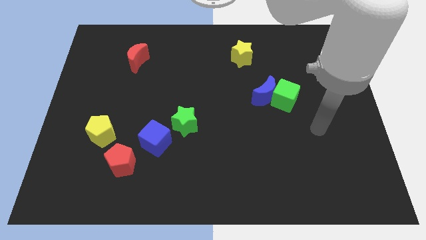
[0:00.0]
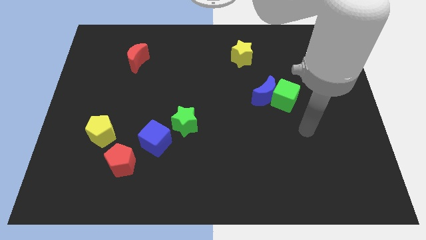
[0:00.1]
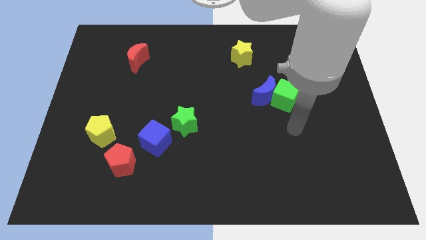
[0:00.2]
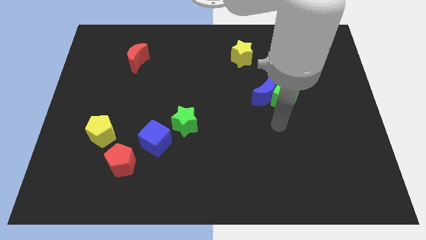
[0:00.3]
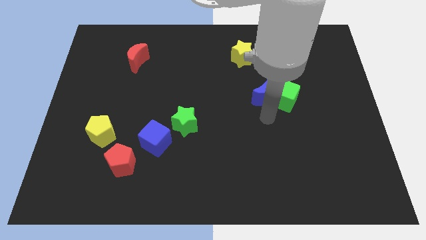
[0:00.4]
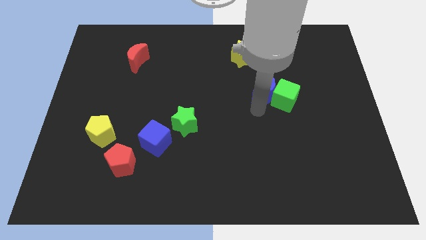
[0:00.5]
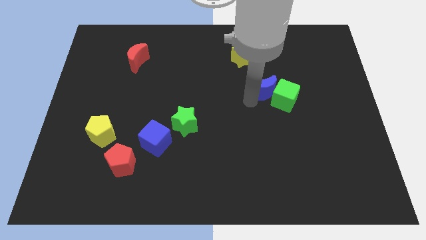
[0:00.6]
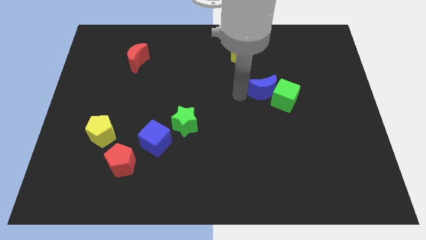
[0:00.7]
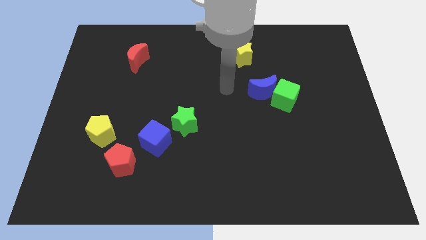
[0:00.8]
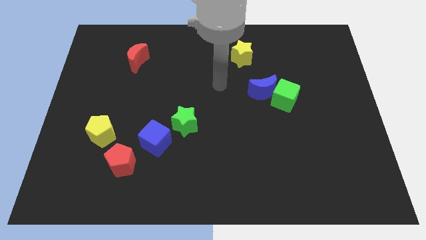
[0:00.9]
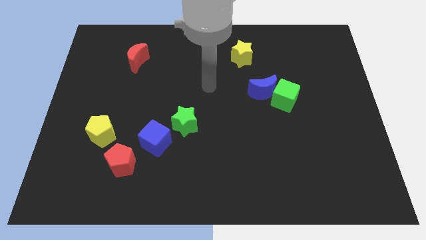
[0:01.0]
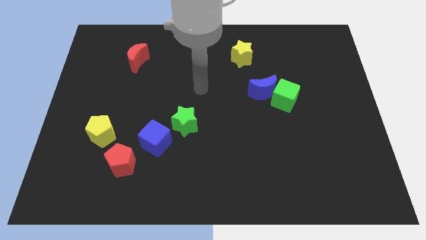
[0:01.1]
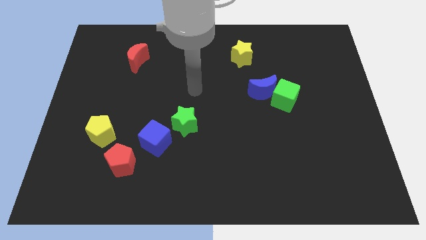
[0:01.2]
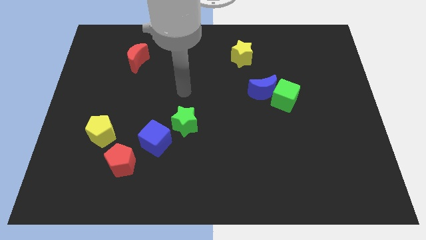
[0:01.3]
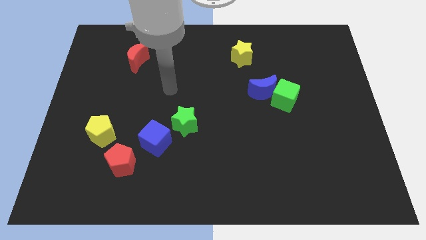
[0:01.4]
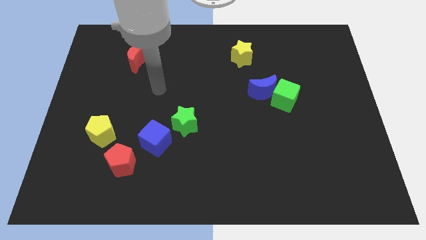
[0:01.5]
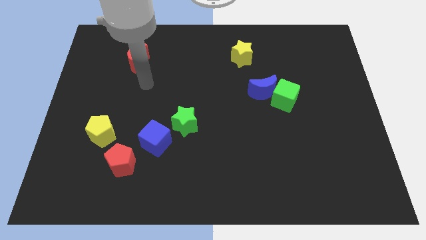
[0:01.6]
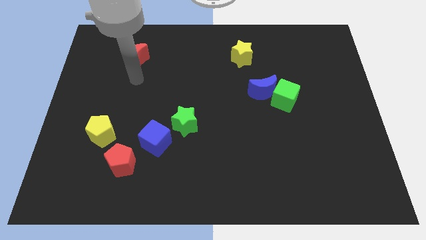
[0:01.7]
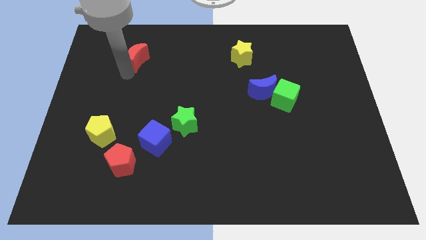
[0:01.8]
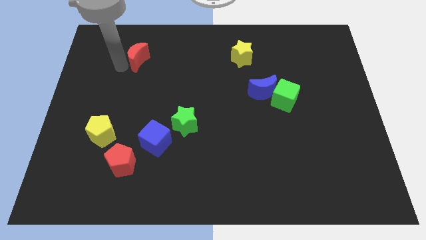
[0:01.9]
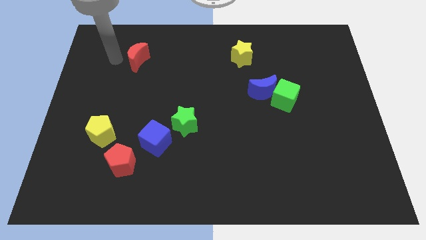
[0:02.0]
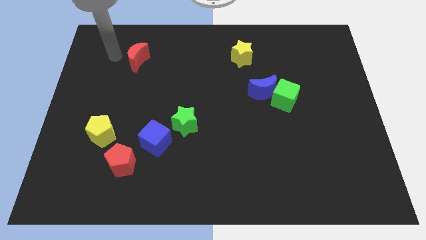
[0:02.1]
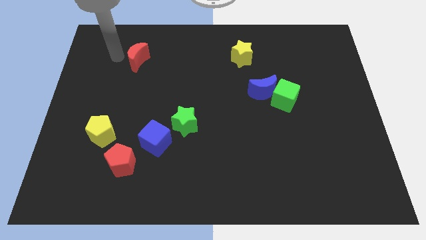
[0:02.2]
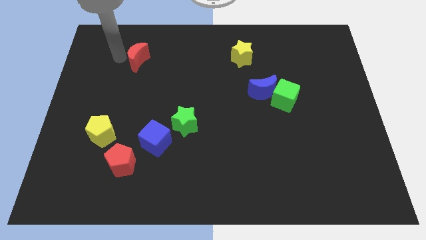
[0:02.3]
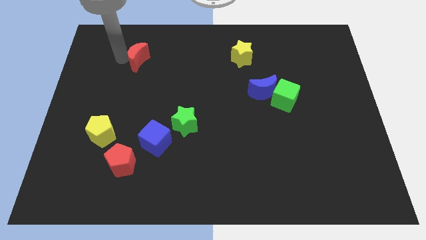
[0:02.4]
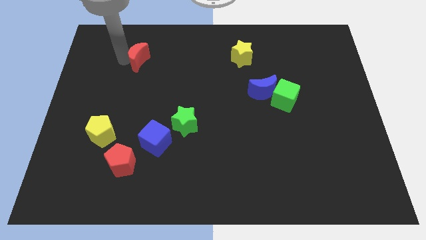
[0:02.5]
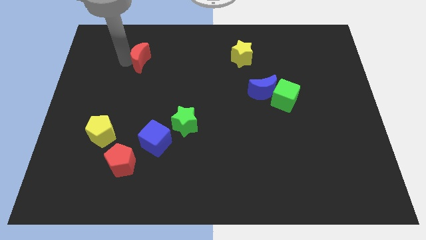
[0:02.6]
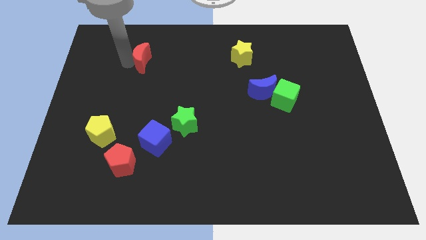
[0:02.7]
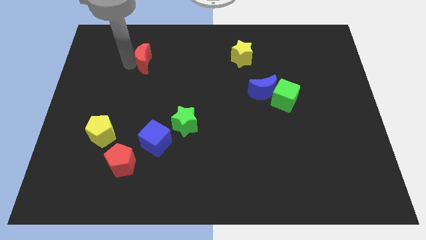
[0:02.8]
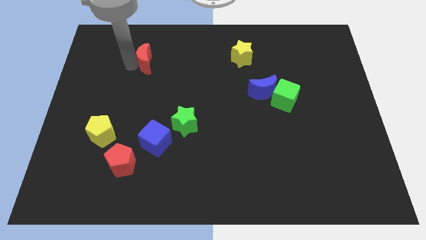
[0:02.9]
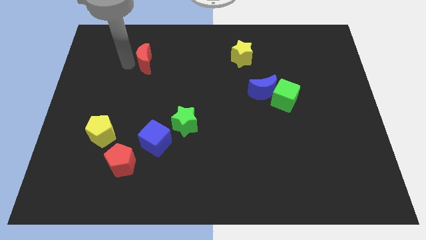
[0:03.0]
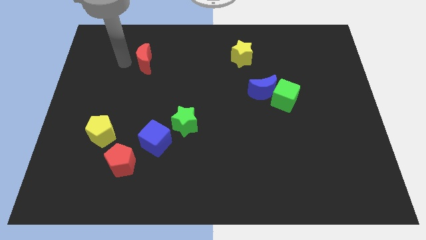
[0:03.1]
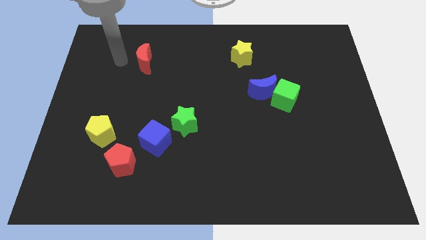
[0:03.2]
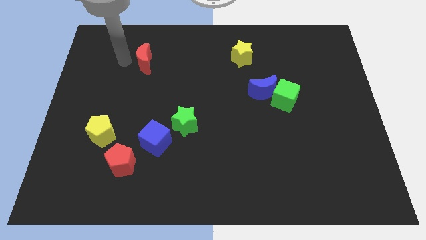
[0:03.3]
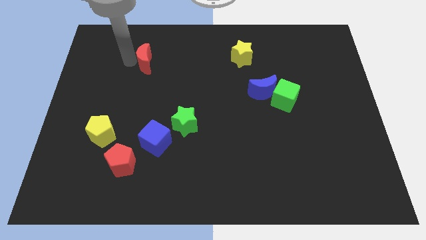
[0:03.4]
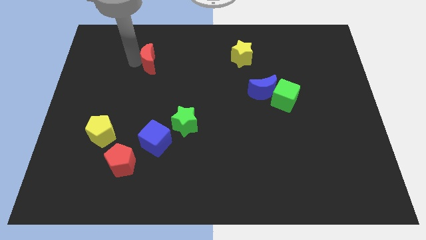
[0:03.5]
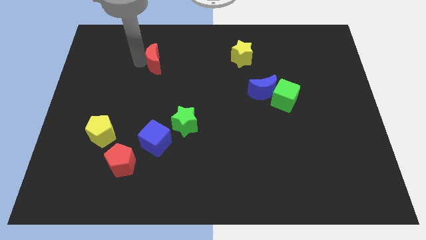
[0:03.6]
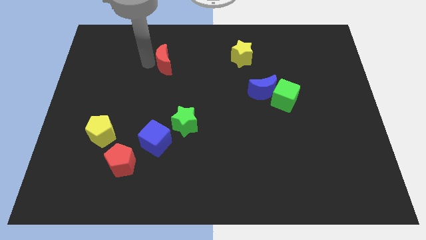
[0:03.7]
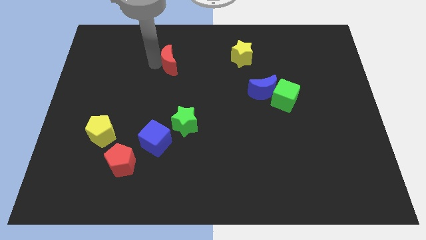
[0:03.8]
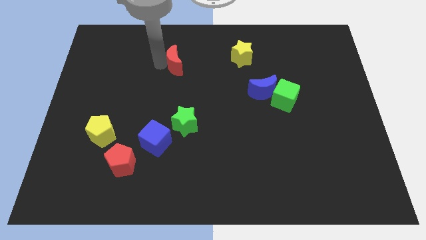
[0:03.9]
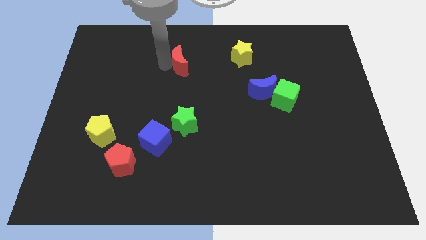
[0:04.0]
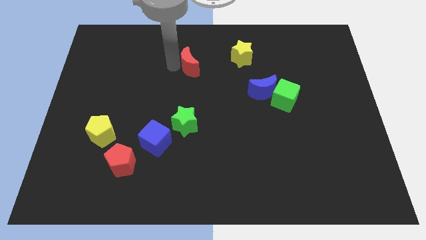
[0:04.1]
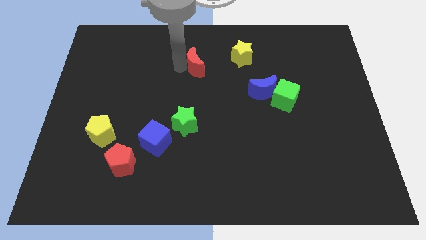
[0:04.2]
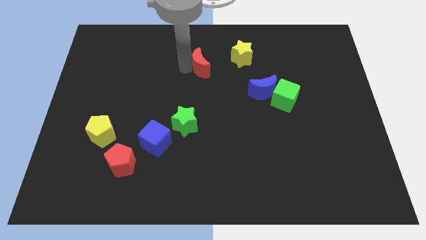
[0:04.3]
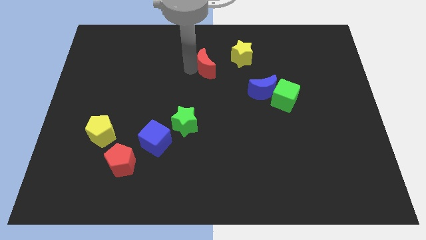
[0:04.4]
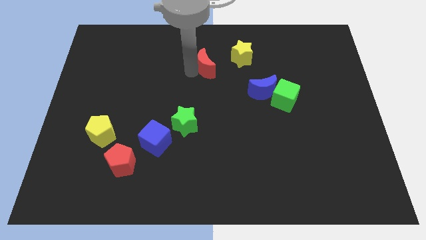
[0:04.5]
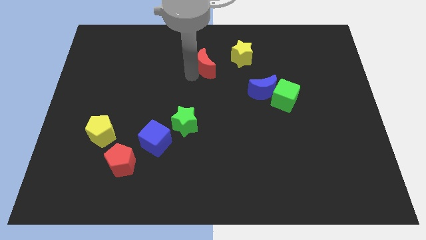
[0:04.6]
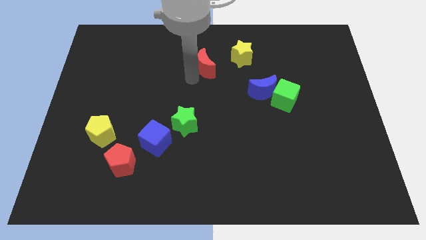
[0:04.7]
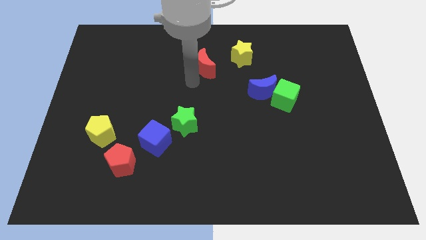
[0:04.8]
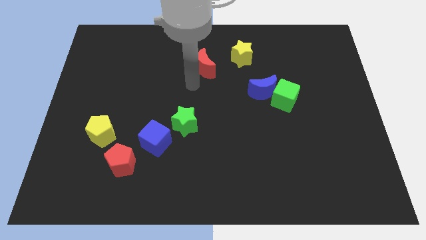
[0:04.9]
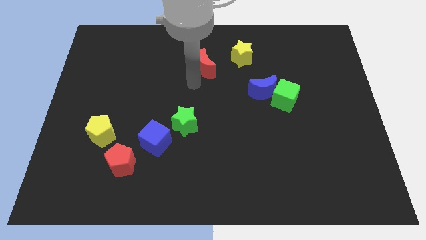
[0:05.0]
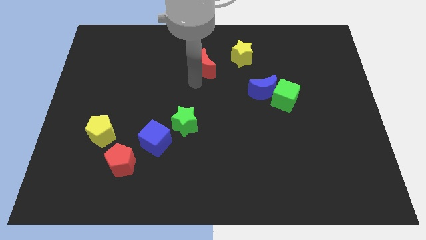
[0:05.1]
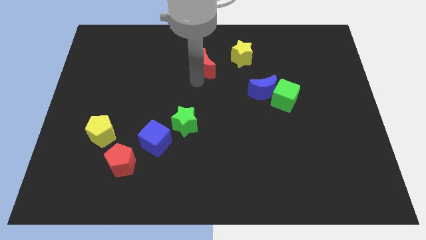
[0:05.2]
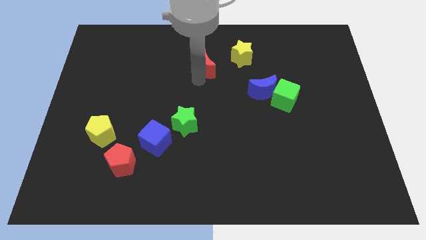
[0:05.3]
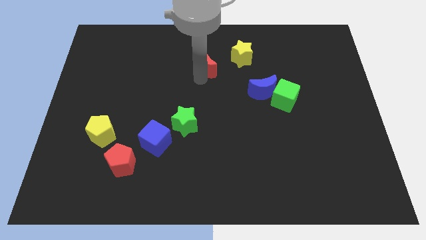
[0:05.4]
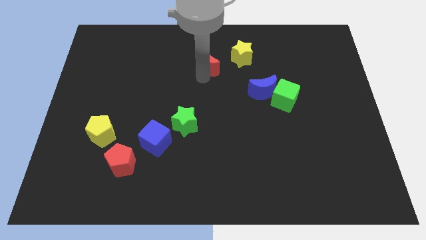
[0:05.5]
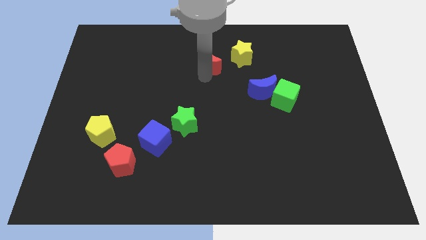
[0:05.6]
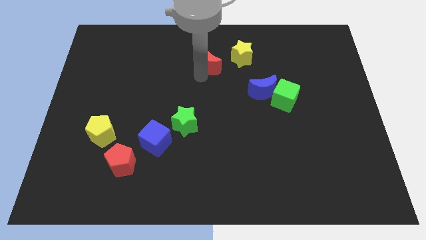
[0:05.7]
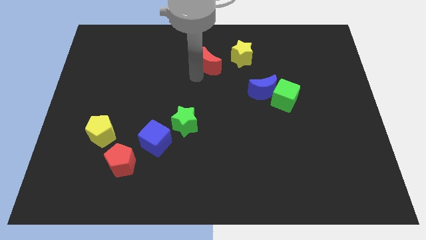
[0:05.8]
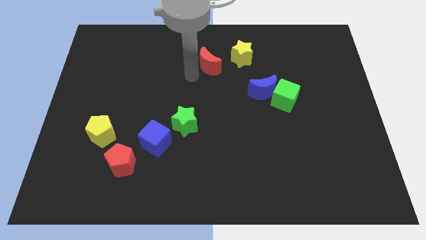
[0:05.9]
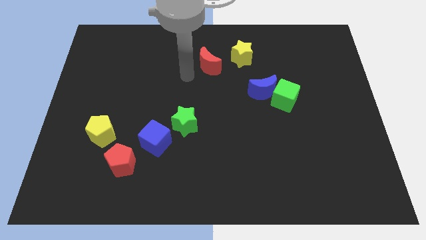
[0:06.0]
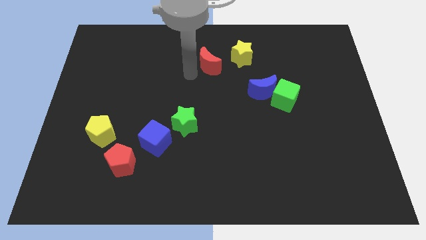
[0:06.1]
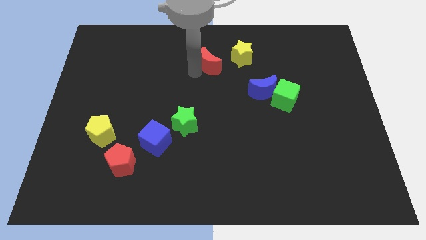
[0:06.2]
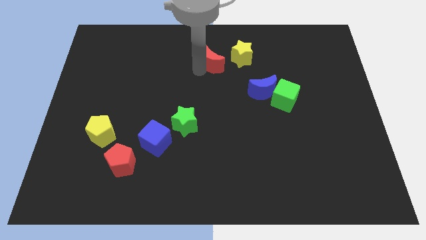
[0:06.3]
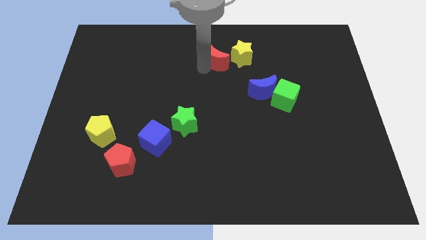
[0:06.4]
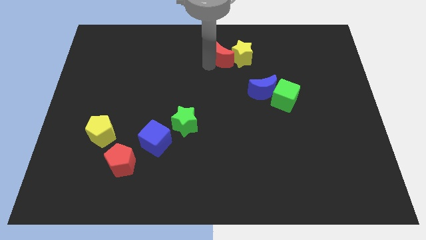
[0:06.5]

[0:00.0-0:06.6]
move the red moon towards the yellow star
